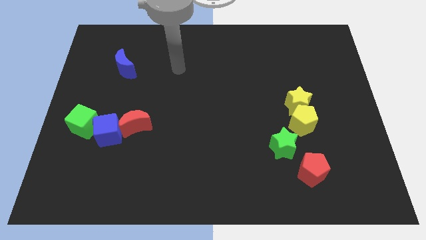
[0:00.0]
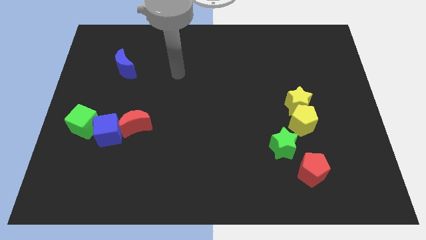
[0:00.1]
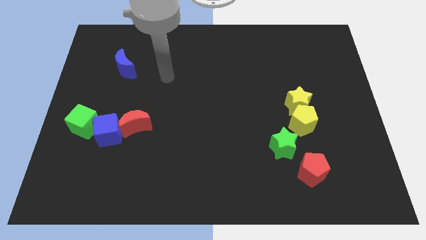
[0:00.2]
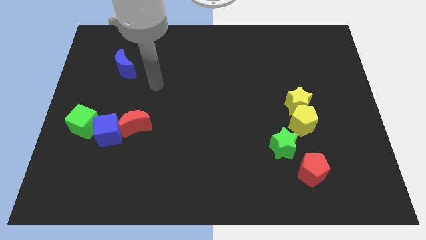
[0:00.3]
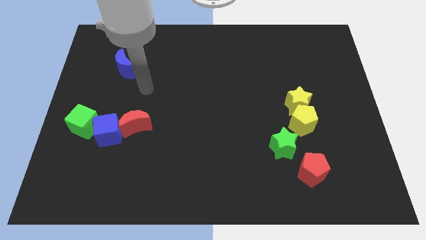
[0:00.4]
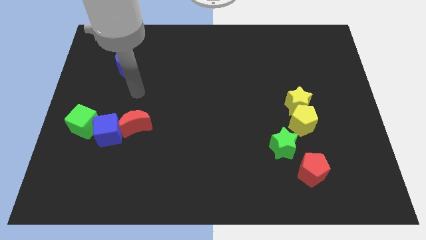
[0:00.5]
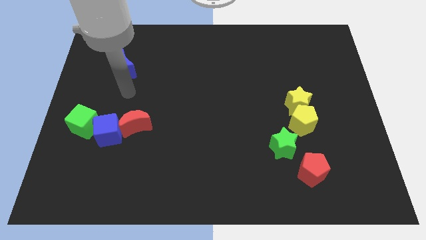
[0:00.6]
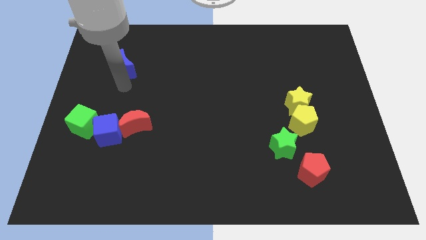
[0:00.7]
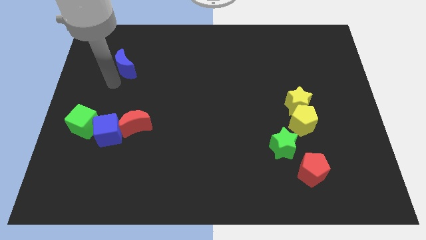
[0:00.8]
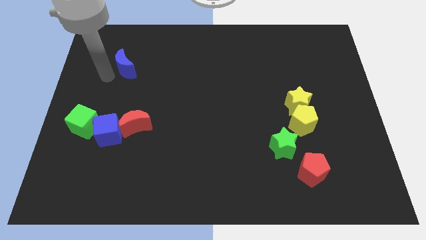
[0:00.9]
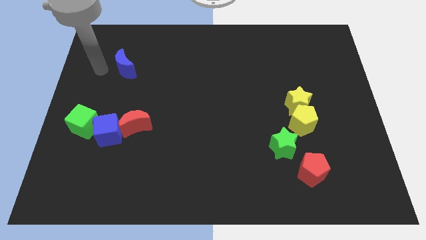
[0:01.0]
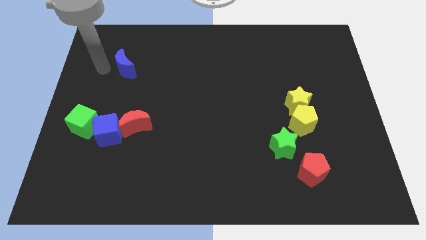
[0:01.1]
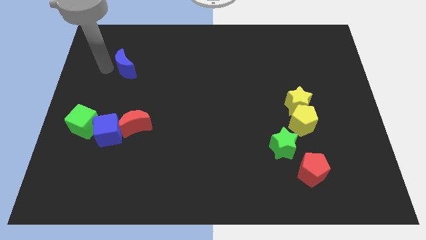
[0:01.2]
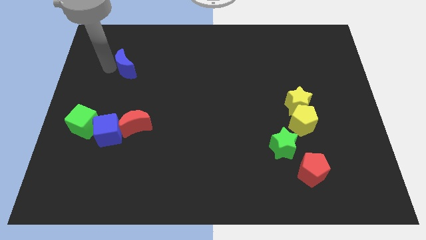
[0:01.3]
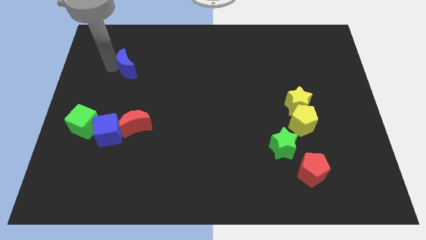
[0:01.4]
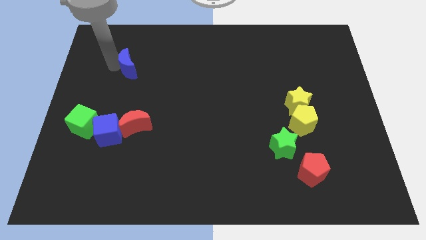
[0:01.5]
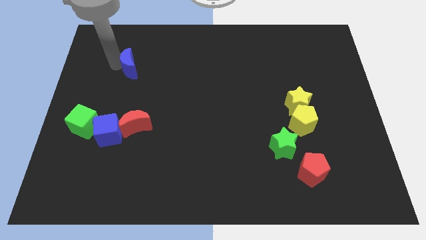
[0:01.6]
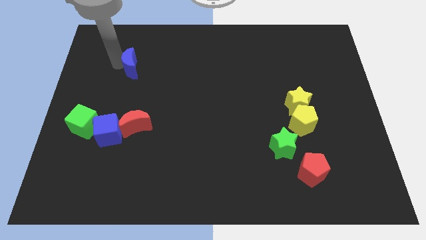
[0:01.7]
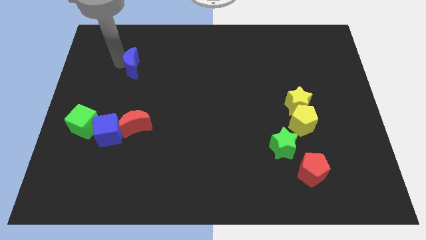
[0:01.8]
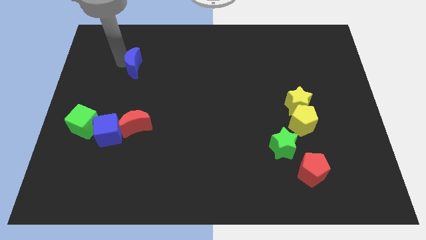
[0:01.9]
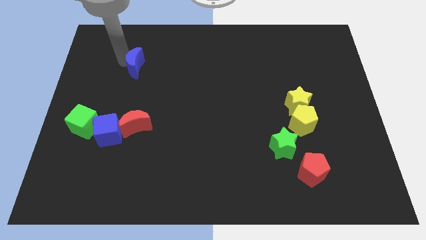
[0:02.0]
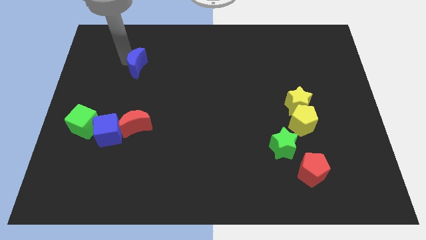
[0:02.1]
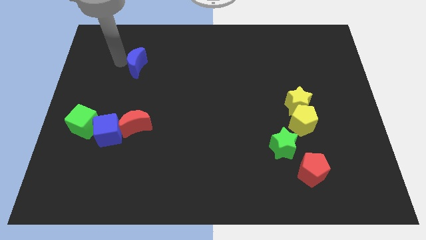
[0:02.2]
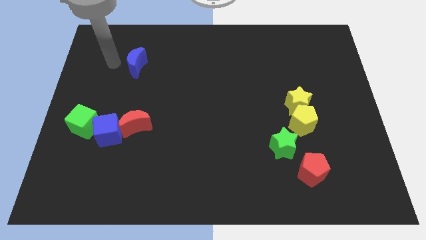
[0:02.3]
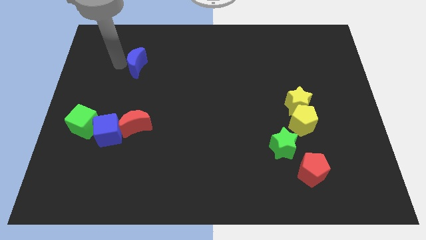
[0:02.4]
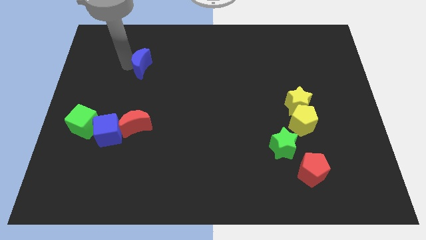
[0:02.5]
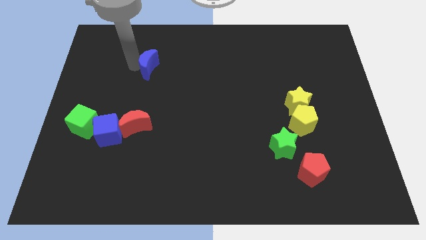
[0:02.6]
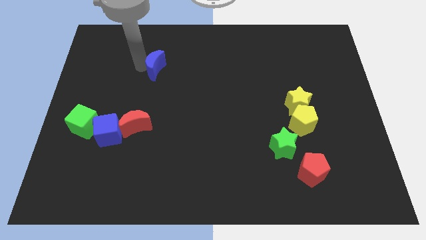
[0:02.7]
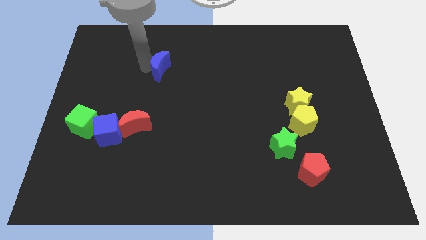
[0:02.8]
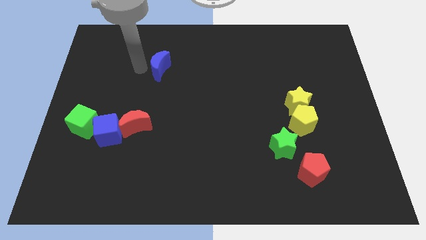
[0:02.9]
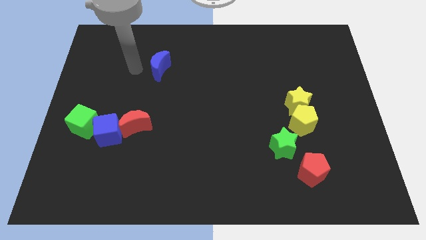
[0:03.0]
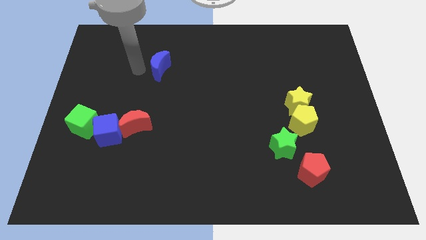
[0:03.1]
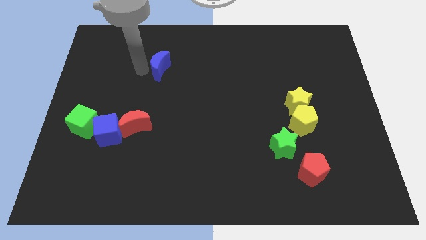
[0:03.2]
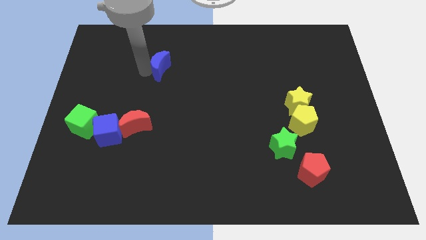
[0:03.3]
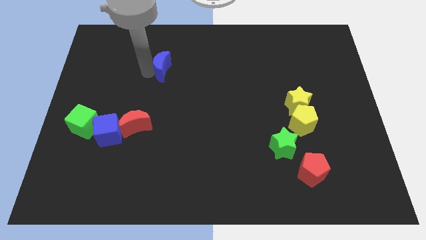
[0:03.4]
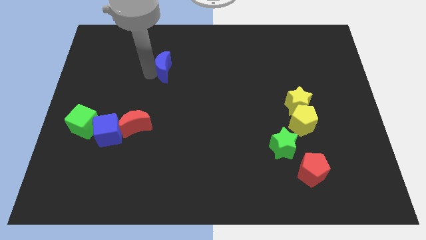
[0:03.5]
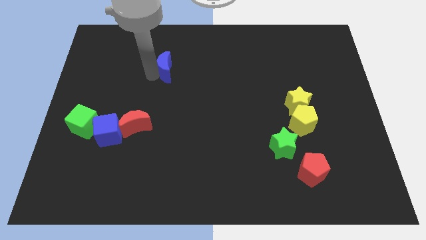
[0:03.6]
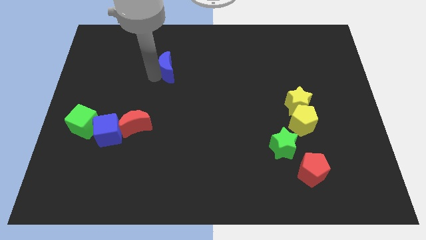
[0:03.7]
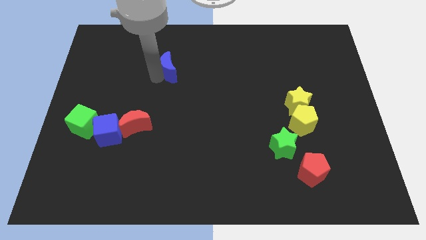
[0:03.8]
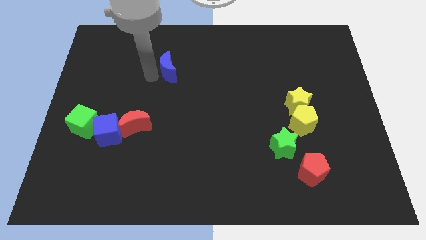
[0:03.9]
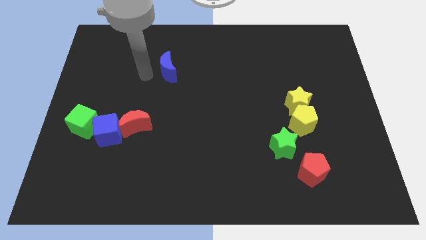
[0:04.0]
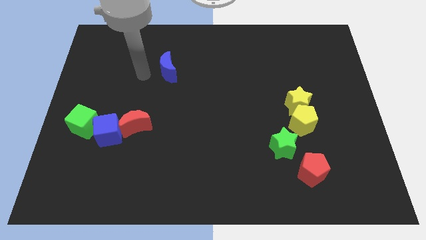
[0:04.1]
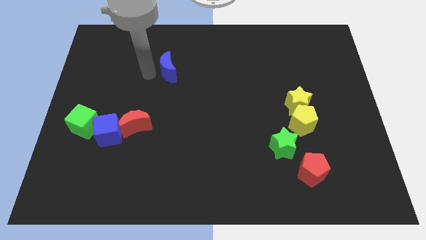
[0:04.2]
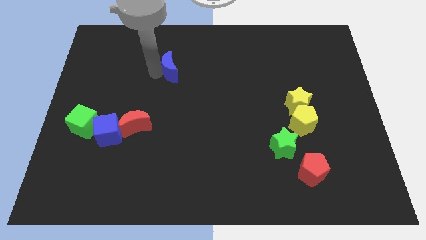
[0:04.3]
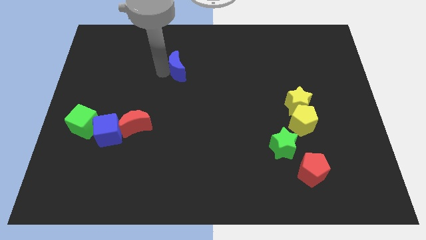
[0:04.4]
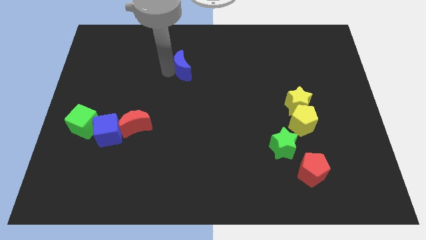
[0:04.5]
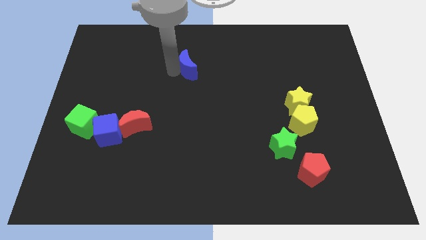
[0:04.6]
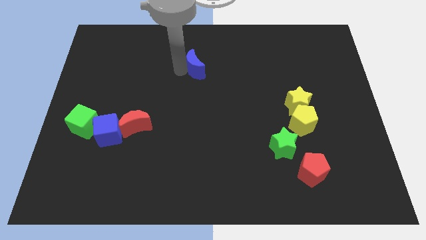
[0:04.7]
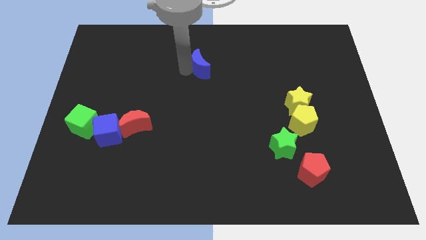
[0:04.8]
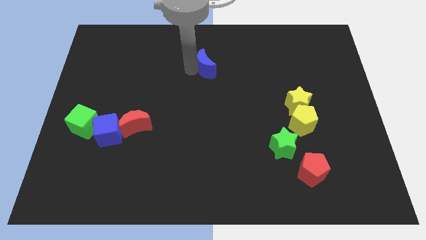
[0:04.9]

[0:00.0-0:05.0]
push the blue moon right

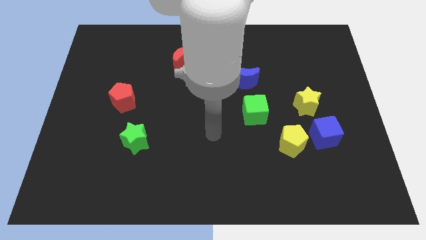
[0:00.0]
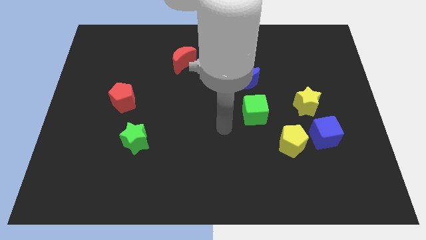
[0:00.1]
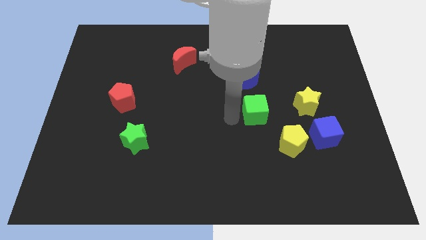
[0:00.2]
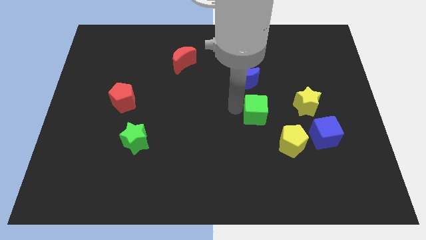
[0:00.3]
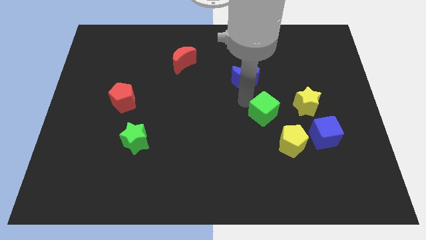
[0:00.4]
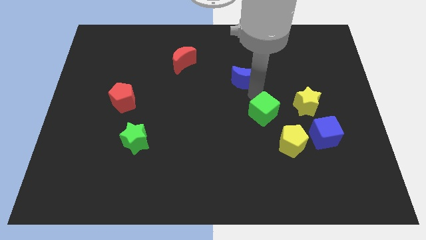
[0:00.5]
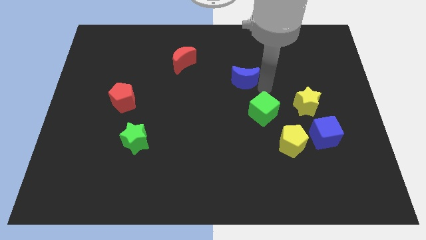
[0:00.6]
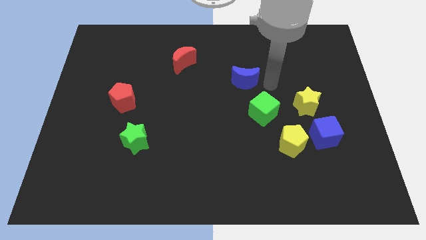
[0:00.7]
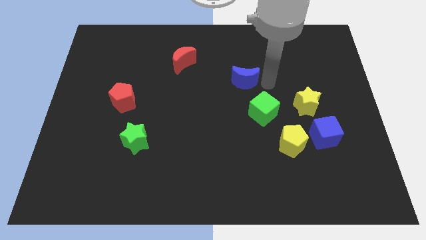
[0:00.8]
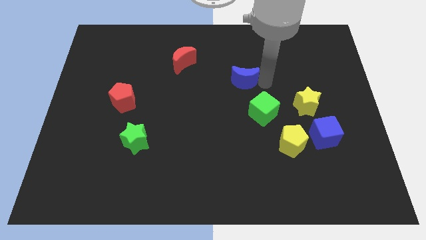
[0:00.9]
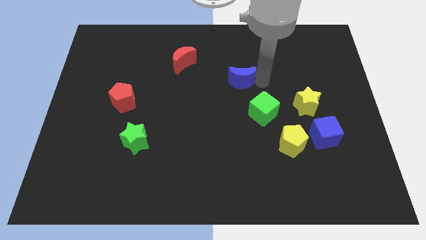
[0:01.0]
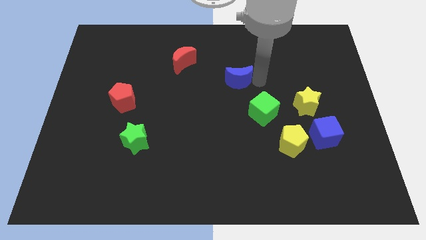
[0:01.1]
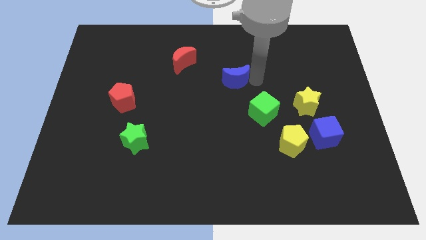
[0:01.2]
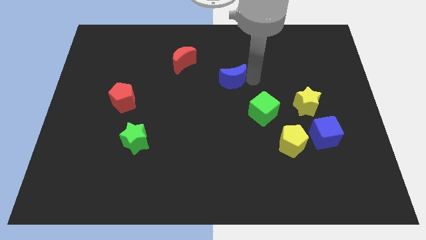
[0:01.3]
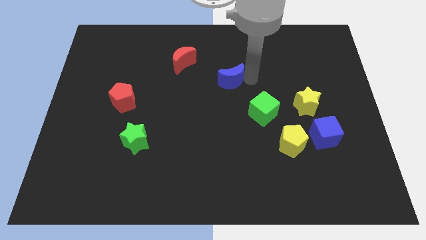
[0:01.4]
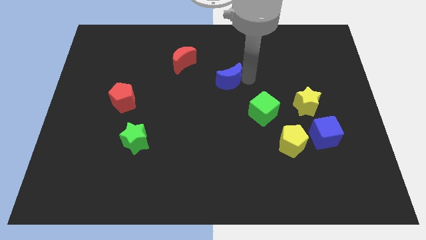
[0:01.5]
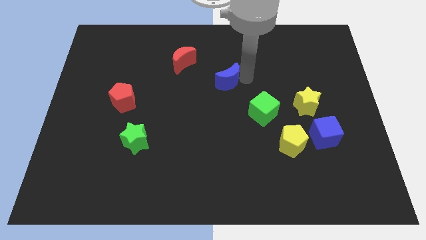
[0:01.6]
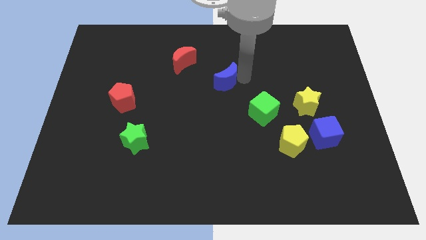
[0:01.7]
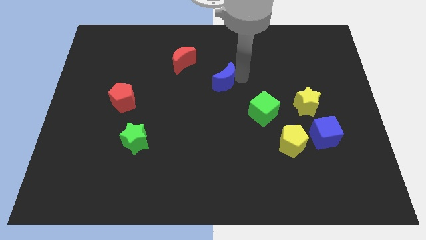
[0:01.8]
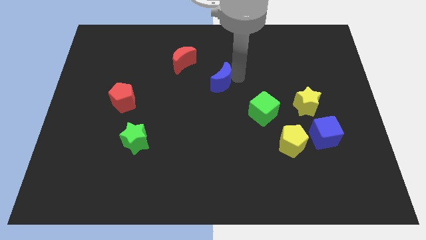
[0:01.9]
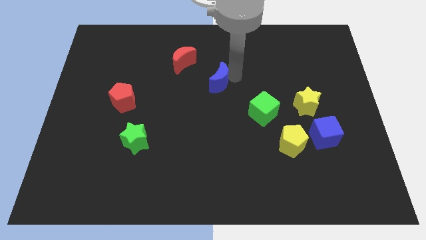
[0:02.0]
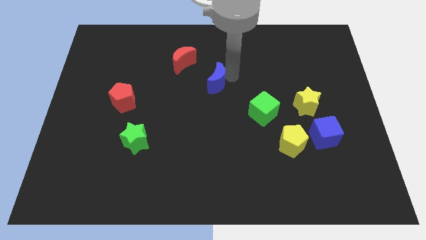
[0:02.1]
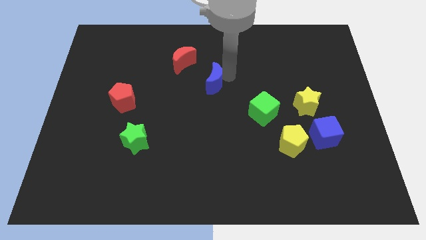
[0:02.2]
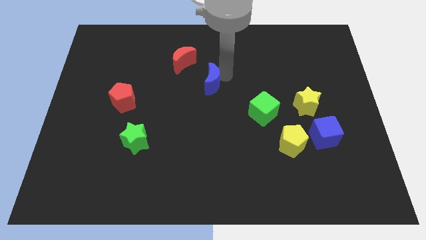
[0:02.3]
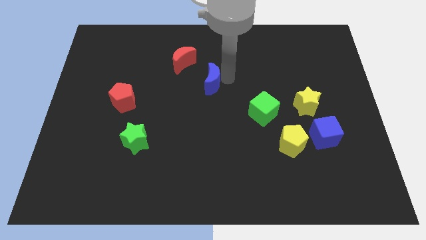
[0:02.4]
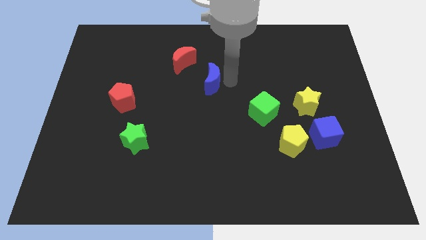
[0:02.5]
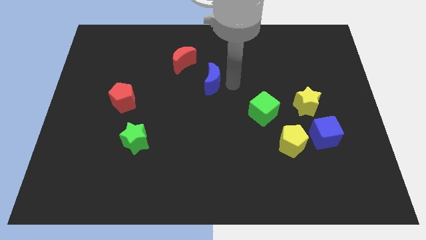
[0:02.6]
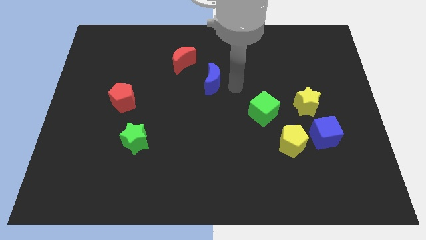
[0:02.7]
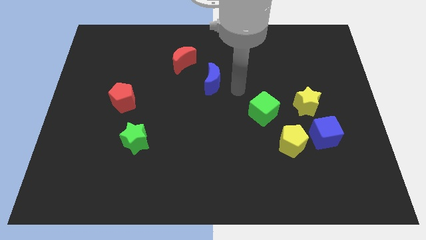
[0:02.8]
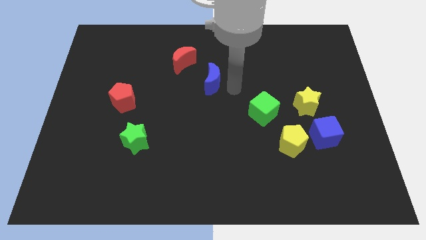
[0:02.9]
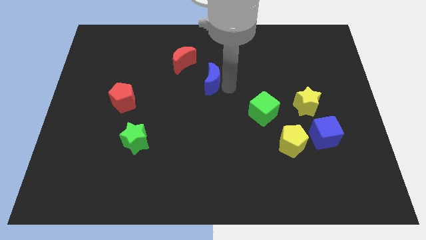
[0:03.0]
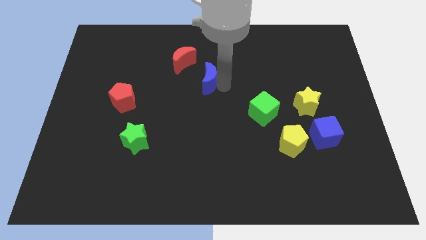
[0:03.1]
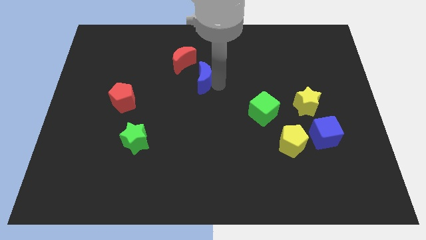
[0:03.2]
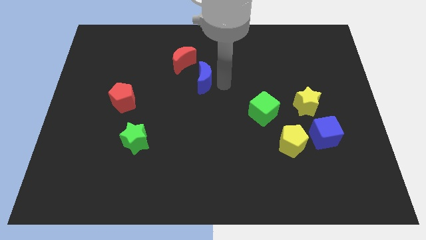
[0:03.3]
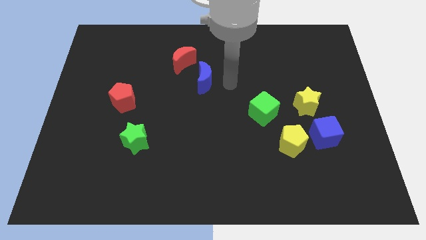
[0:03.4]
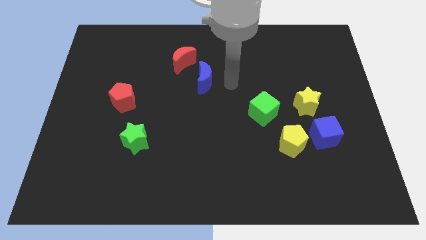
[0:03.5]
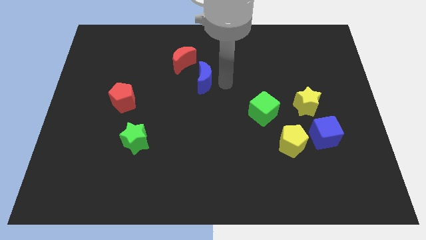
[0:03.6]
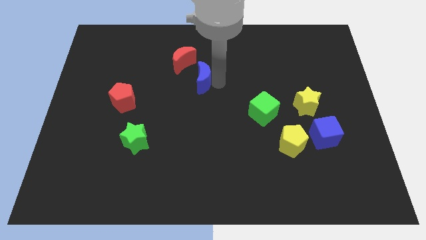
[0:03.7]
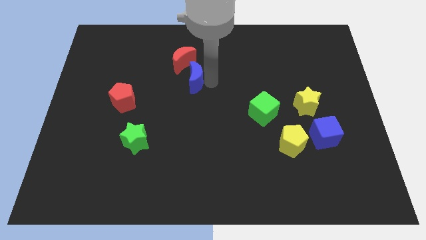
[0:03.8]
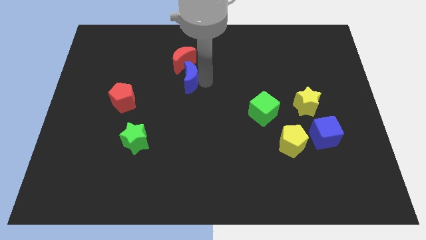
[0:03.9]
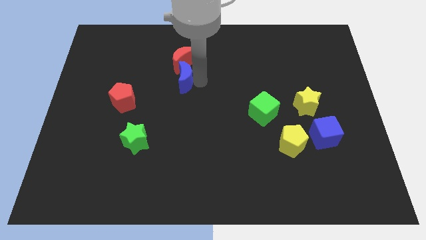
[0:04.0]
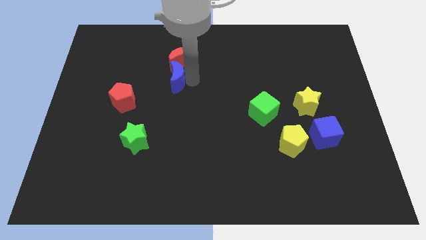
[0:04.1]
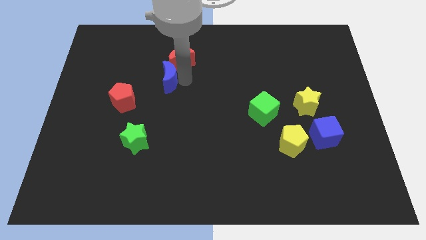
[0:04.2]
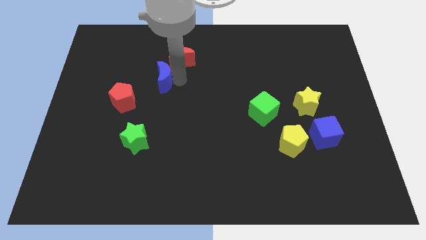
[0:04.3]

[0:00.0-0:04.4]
move the blue moon to the left
